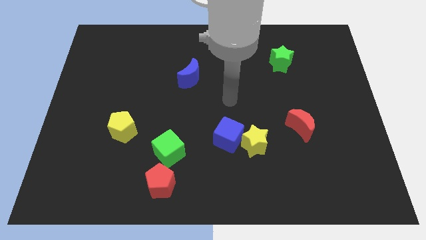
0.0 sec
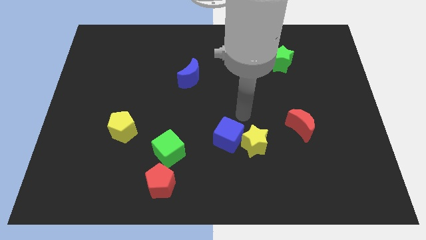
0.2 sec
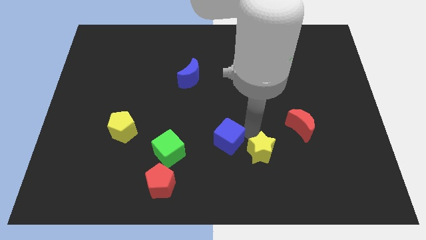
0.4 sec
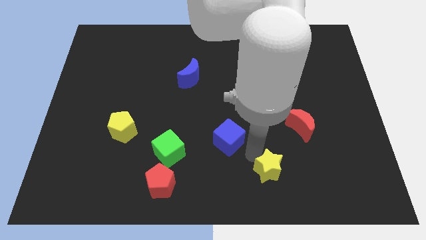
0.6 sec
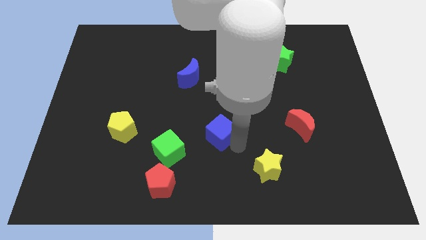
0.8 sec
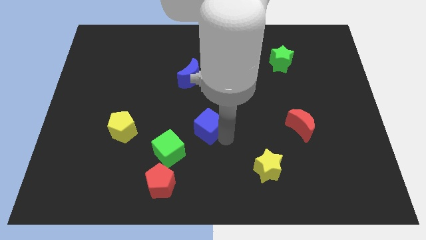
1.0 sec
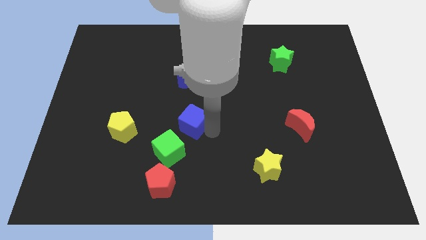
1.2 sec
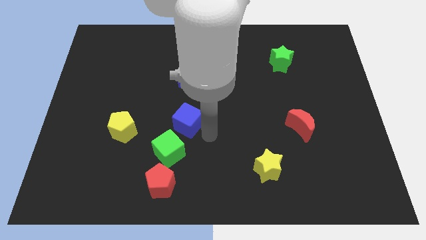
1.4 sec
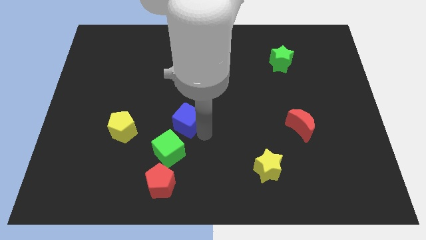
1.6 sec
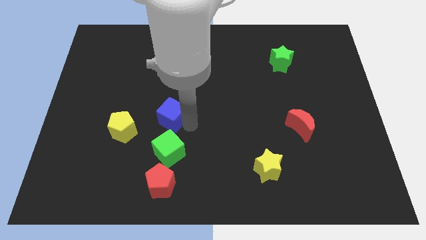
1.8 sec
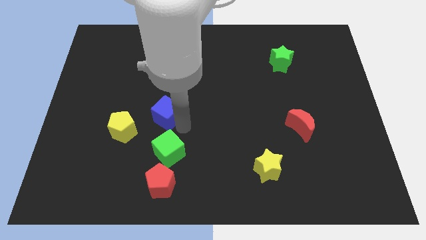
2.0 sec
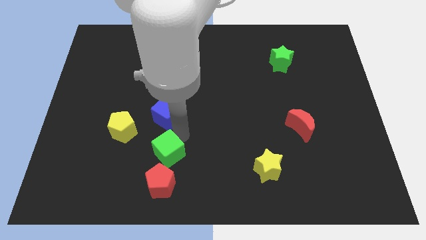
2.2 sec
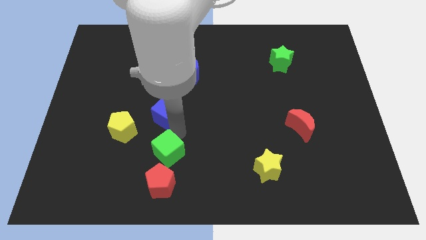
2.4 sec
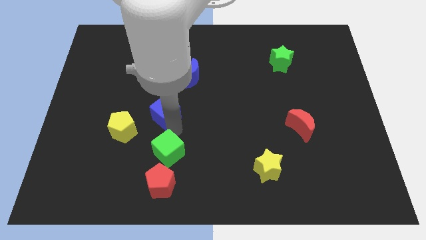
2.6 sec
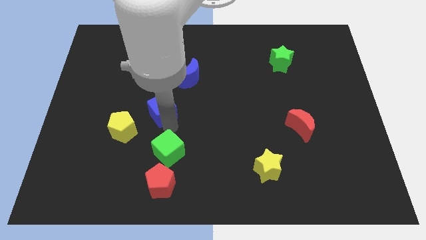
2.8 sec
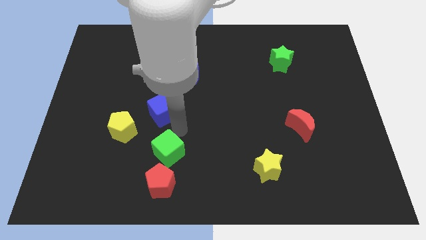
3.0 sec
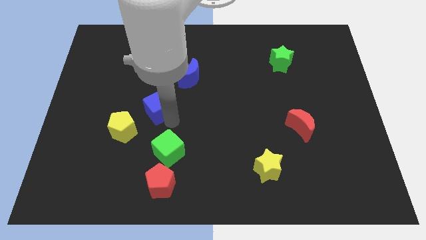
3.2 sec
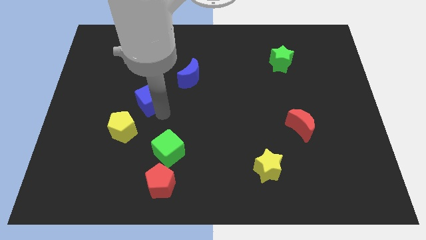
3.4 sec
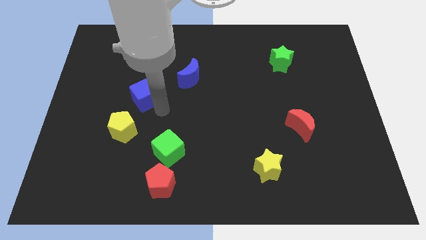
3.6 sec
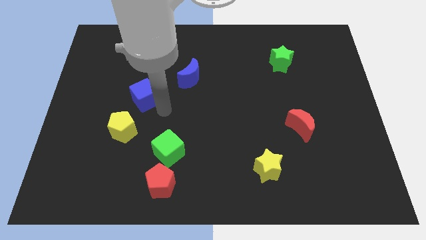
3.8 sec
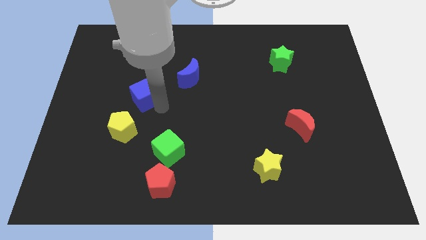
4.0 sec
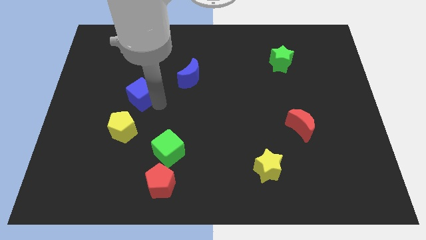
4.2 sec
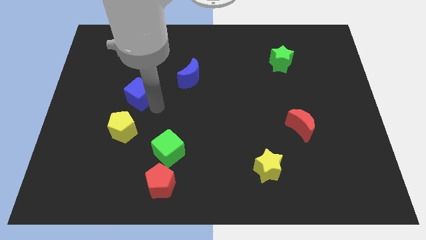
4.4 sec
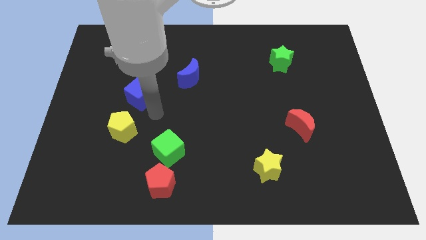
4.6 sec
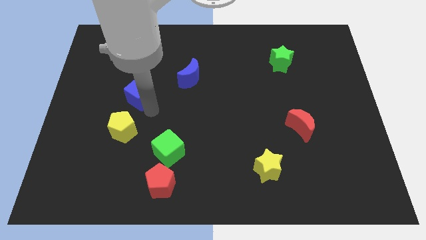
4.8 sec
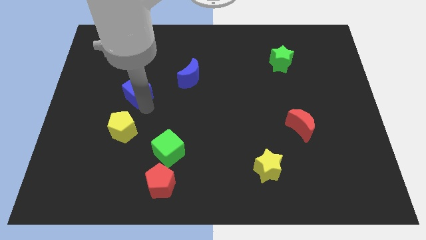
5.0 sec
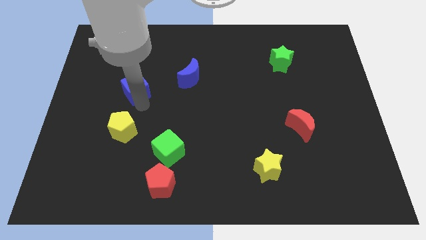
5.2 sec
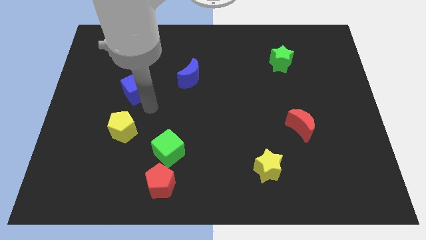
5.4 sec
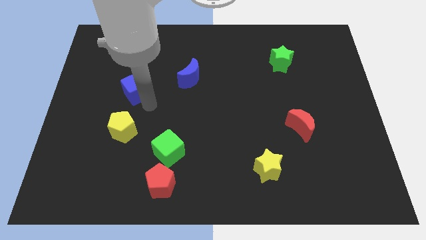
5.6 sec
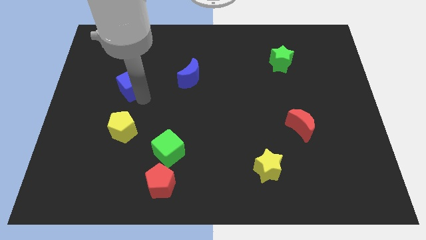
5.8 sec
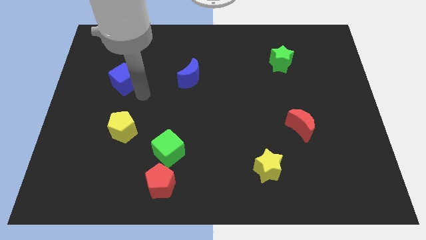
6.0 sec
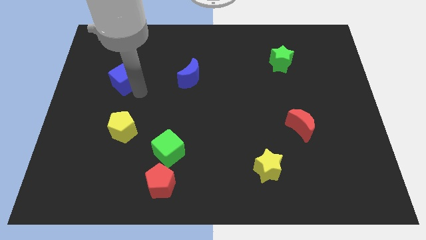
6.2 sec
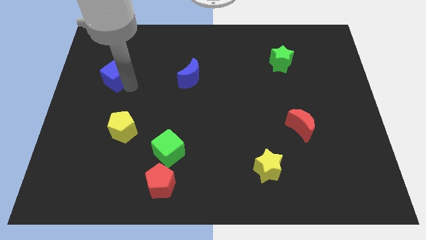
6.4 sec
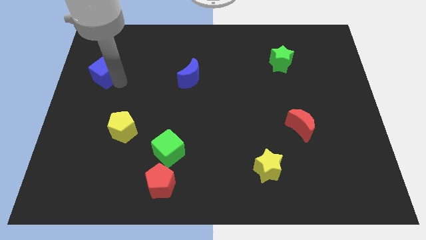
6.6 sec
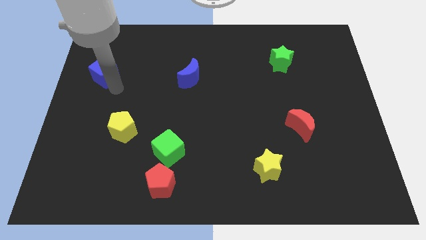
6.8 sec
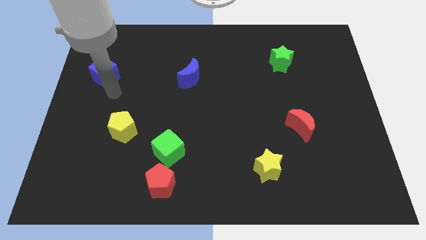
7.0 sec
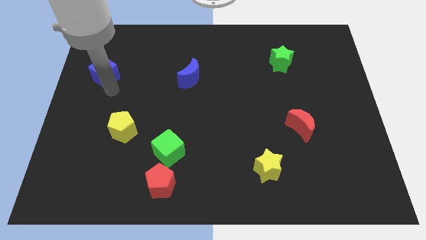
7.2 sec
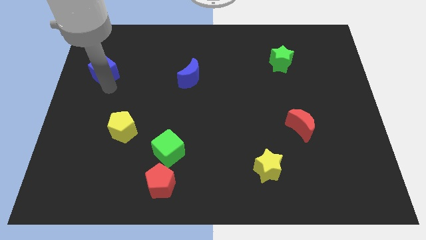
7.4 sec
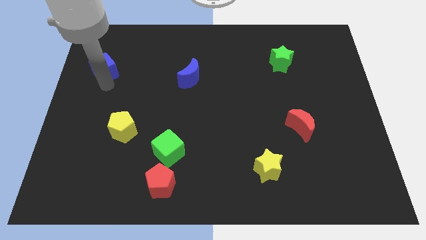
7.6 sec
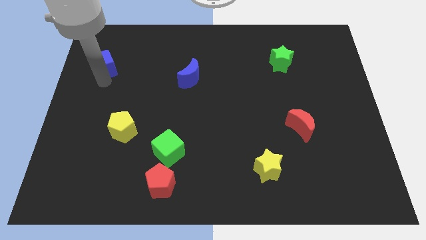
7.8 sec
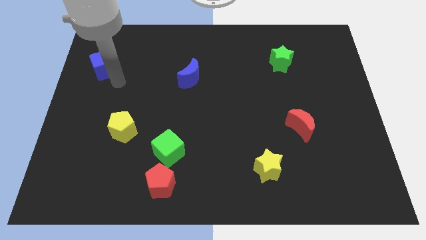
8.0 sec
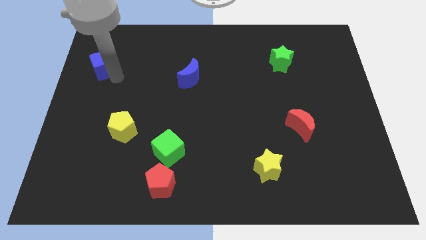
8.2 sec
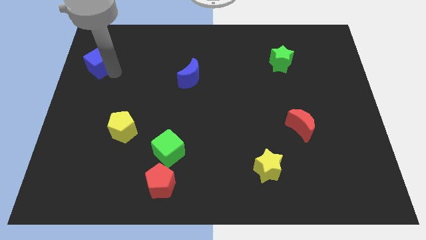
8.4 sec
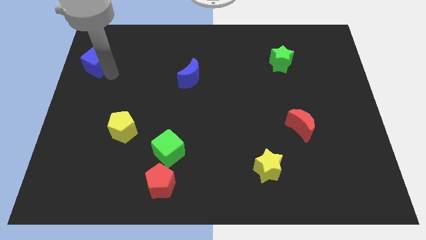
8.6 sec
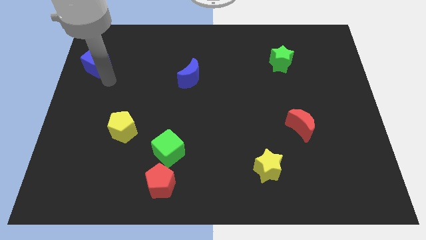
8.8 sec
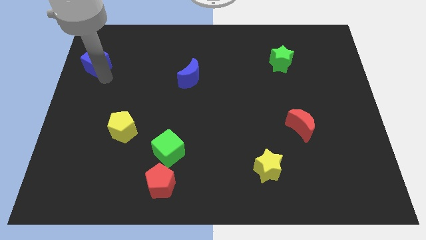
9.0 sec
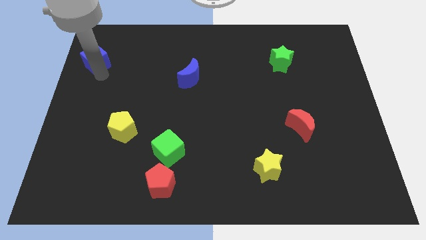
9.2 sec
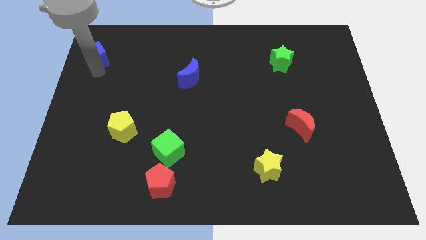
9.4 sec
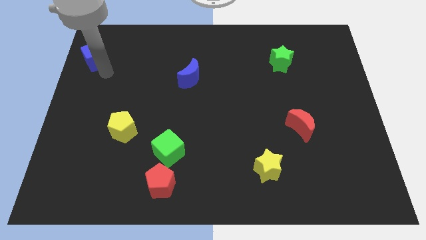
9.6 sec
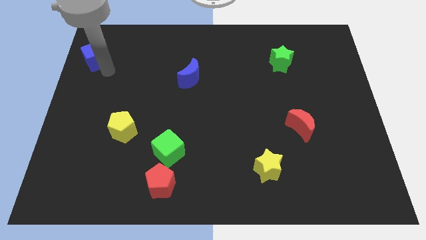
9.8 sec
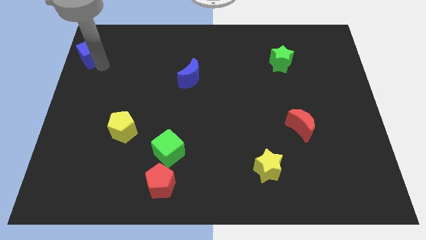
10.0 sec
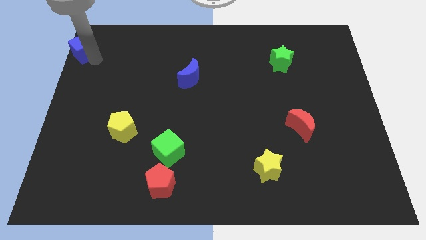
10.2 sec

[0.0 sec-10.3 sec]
put the blue cube to the top left

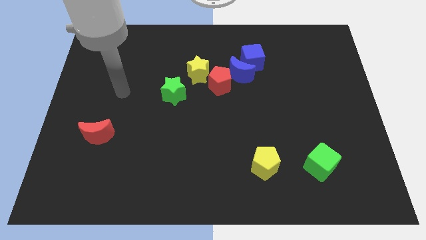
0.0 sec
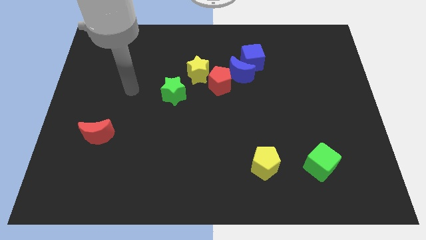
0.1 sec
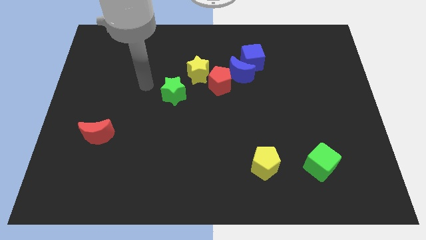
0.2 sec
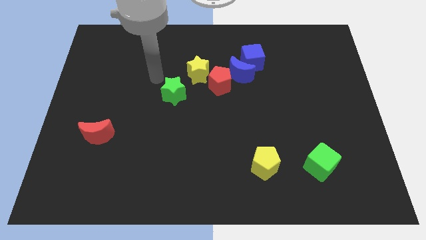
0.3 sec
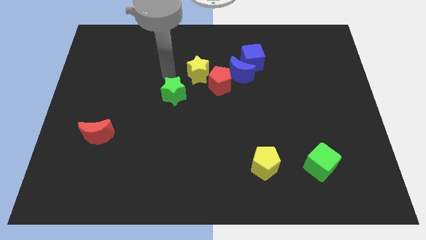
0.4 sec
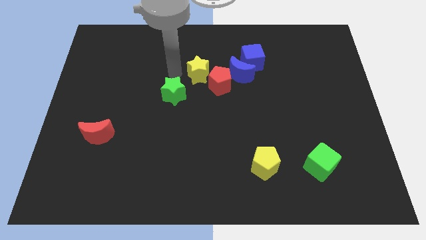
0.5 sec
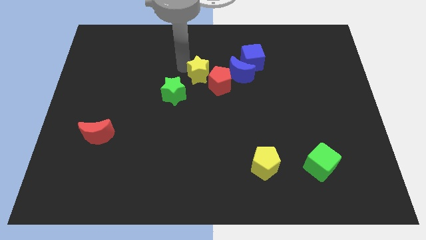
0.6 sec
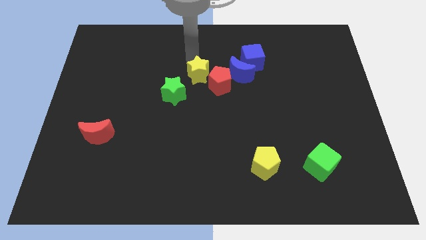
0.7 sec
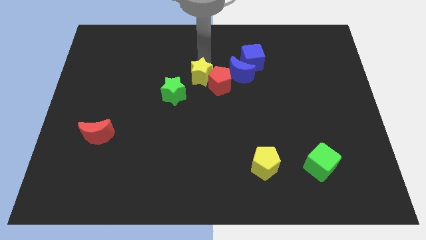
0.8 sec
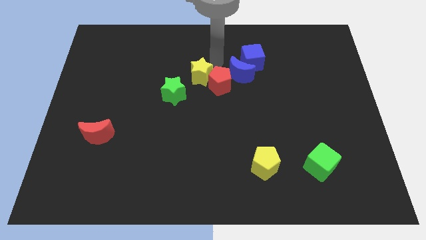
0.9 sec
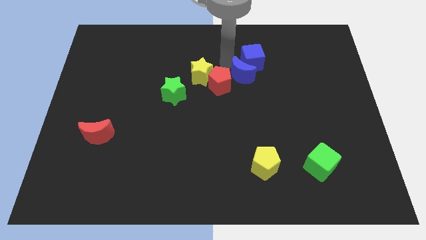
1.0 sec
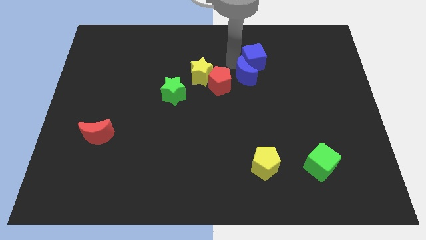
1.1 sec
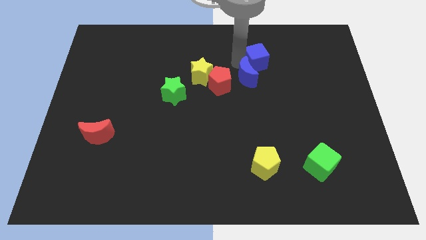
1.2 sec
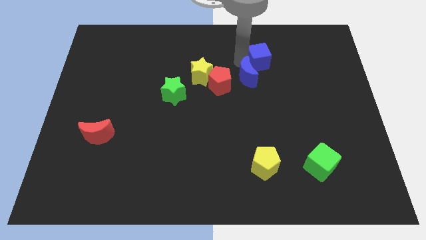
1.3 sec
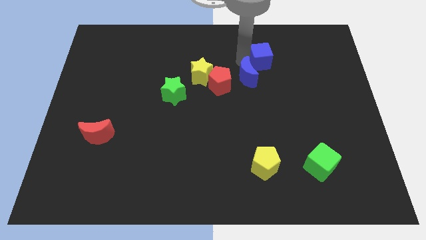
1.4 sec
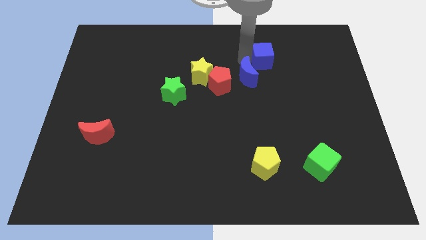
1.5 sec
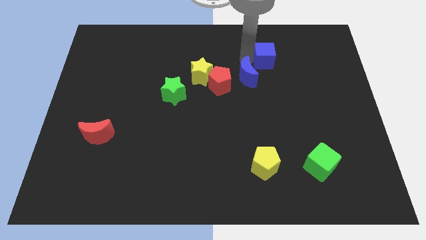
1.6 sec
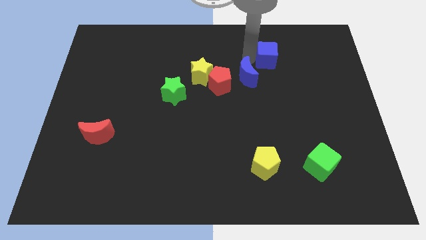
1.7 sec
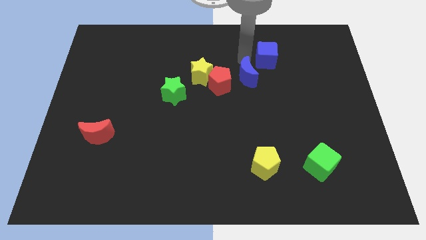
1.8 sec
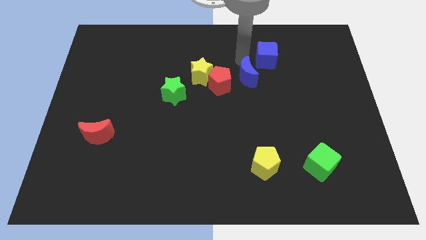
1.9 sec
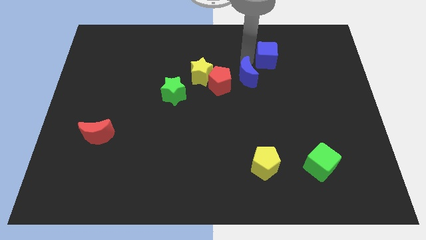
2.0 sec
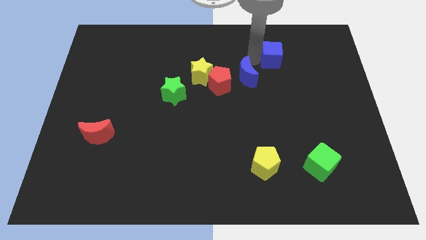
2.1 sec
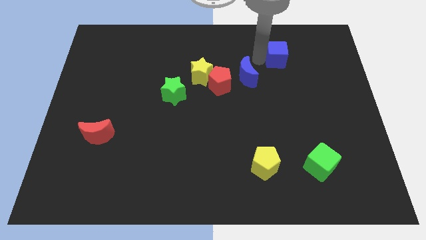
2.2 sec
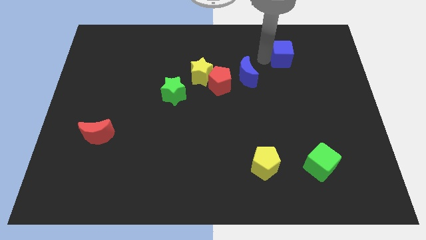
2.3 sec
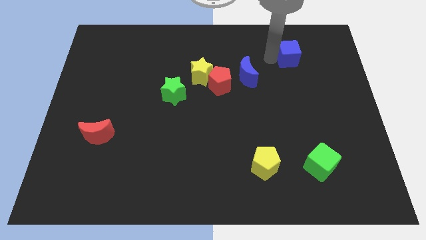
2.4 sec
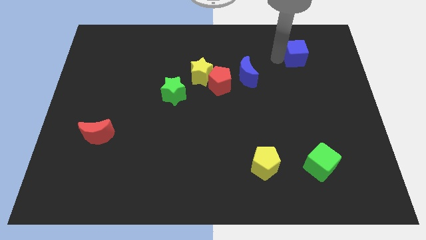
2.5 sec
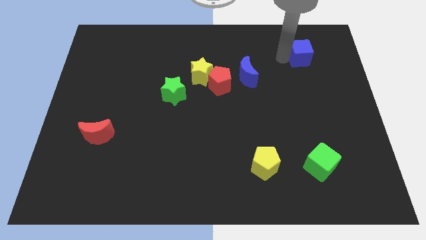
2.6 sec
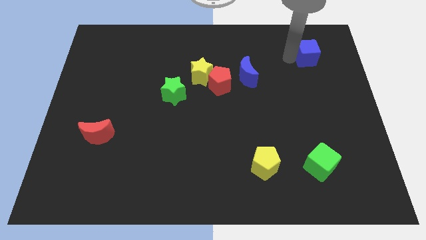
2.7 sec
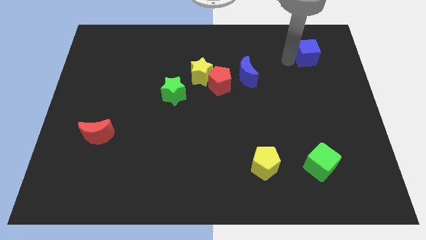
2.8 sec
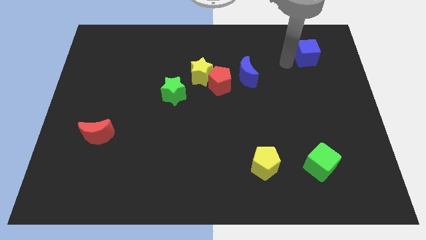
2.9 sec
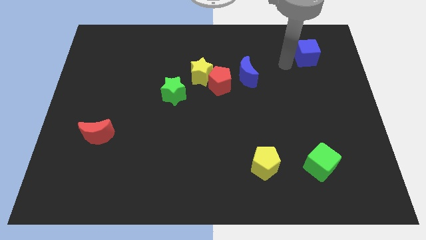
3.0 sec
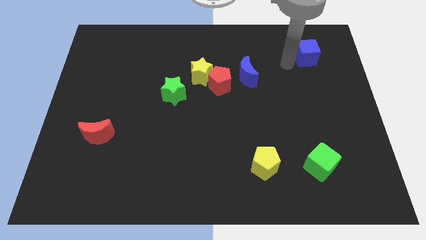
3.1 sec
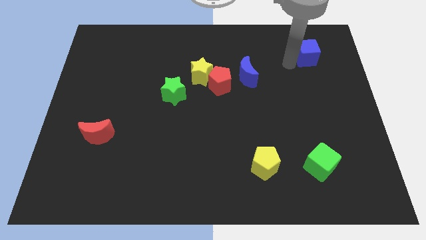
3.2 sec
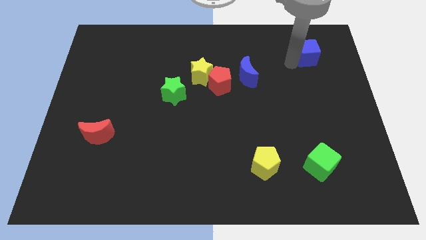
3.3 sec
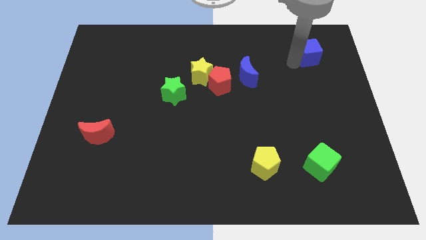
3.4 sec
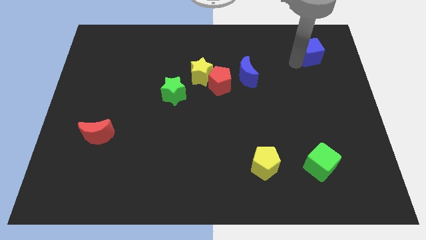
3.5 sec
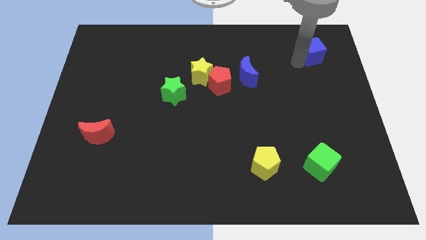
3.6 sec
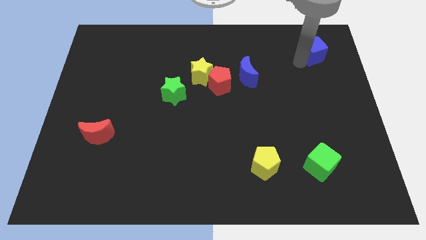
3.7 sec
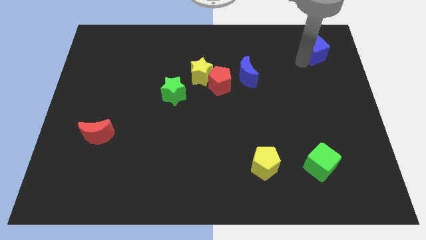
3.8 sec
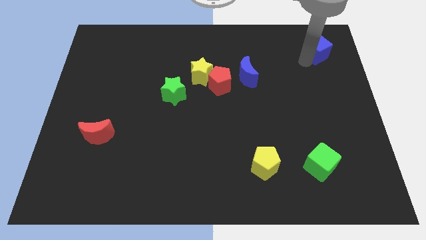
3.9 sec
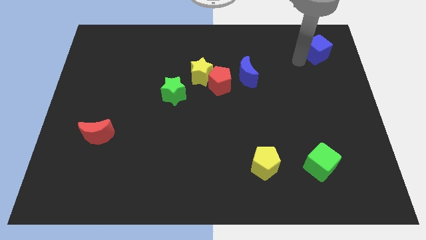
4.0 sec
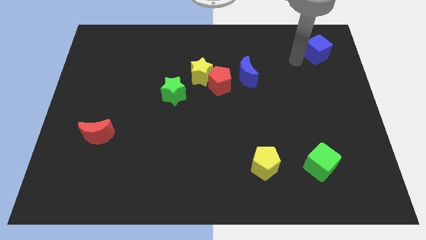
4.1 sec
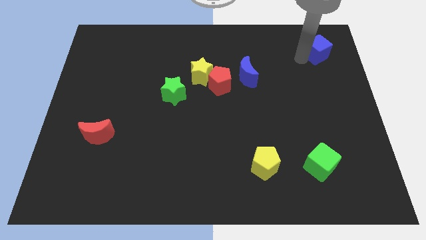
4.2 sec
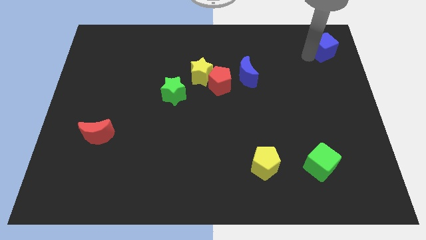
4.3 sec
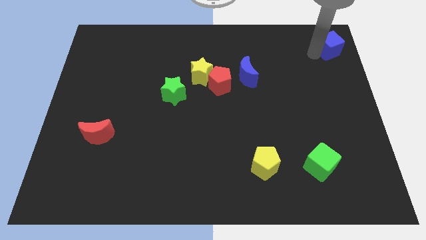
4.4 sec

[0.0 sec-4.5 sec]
put the blue cube to the top right of the board
